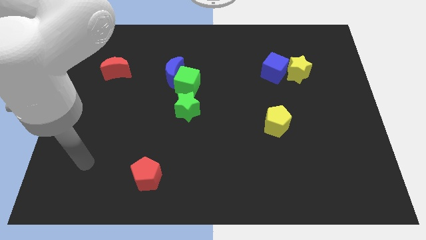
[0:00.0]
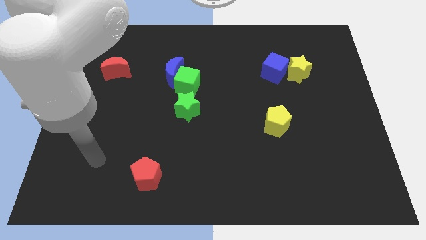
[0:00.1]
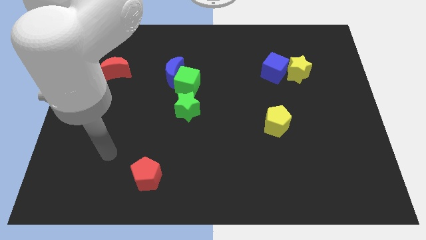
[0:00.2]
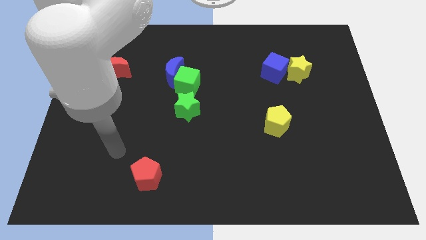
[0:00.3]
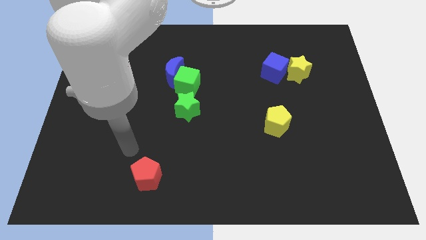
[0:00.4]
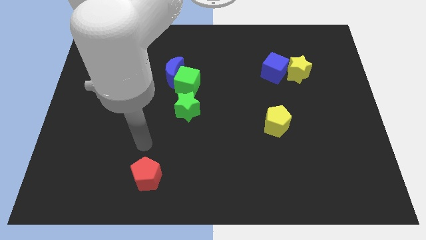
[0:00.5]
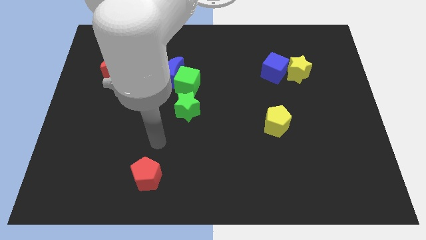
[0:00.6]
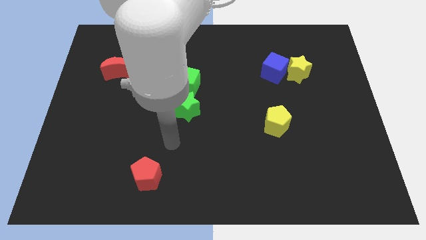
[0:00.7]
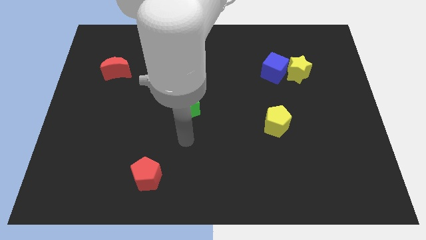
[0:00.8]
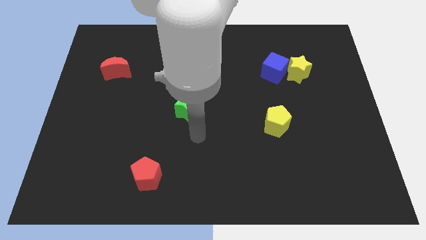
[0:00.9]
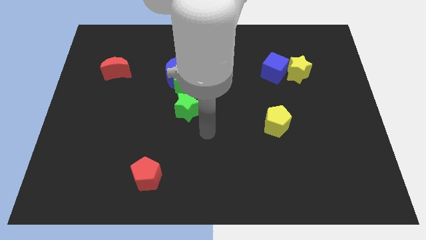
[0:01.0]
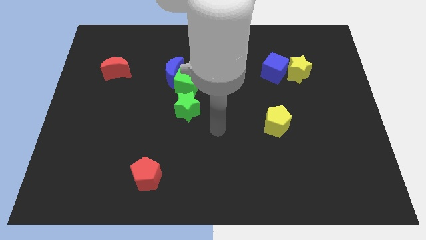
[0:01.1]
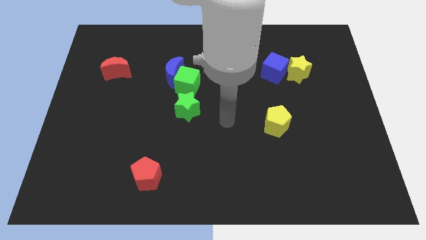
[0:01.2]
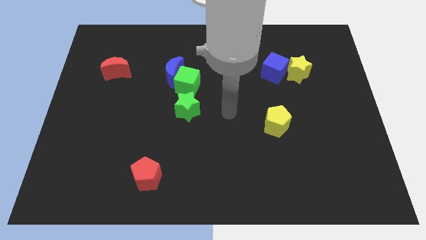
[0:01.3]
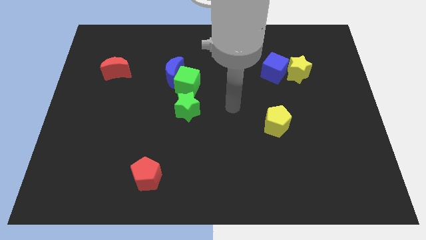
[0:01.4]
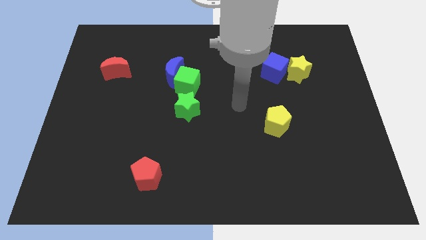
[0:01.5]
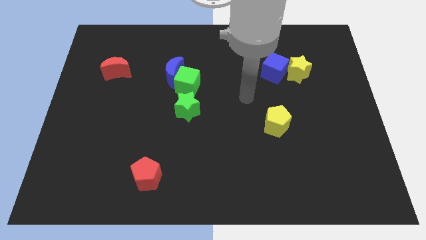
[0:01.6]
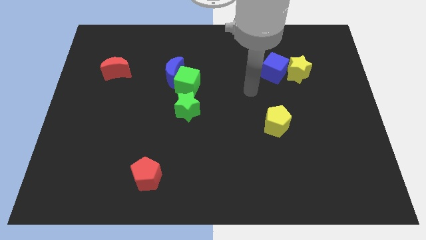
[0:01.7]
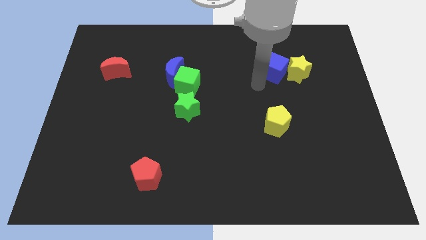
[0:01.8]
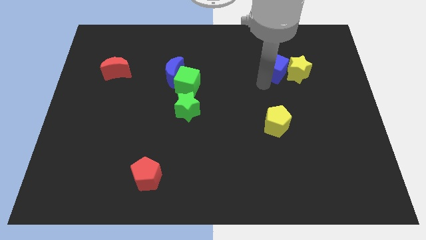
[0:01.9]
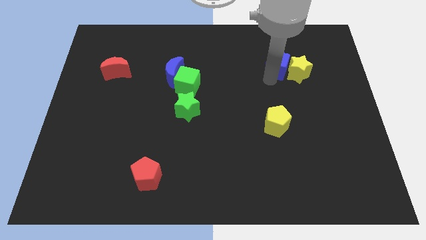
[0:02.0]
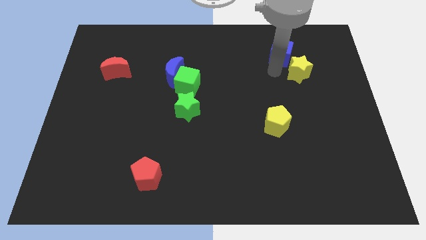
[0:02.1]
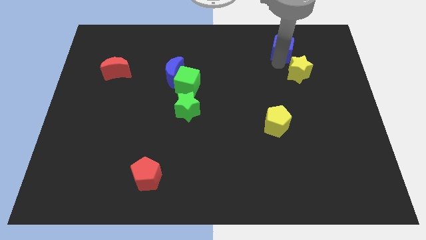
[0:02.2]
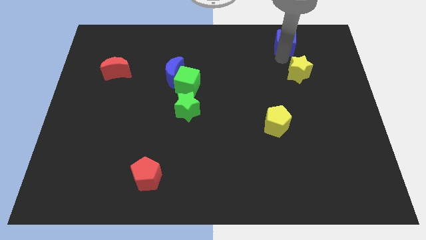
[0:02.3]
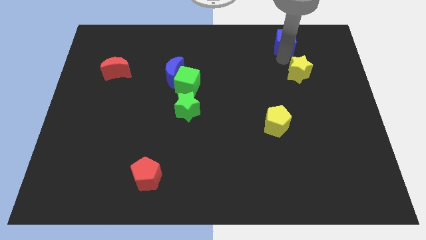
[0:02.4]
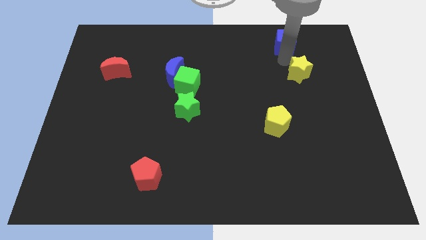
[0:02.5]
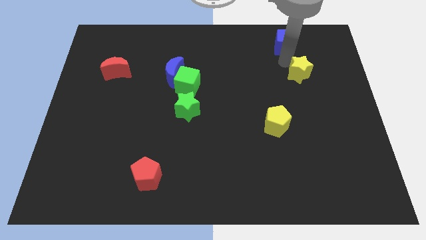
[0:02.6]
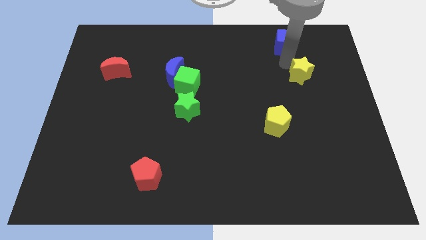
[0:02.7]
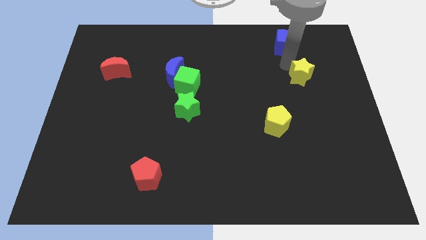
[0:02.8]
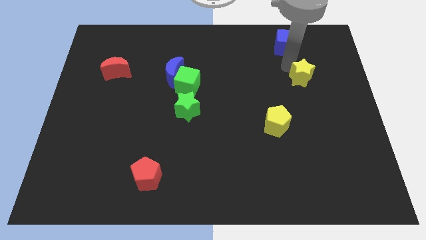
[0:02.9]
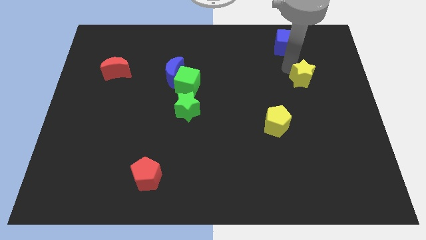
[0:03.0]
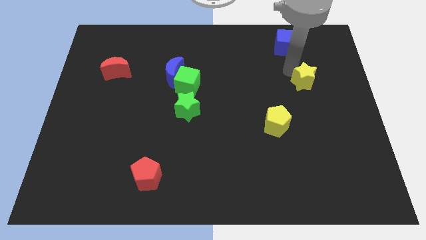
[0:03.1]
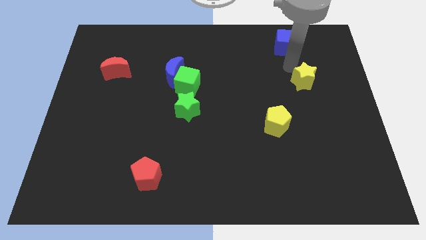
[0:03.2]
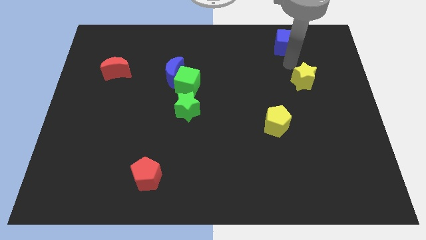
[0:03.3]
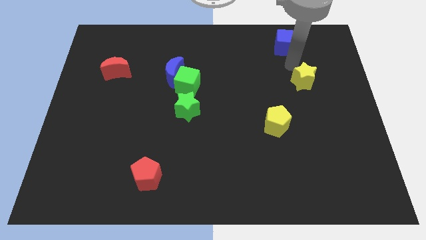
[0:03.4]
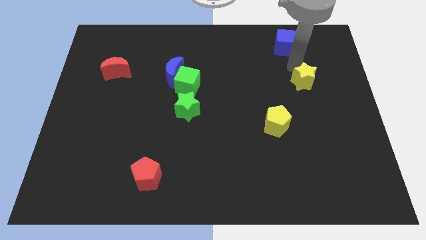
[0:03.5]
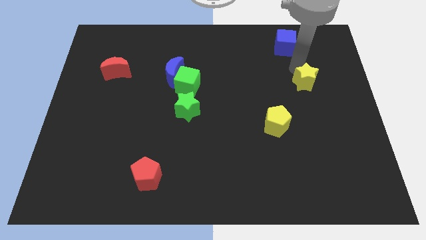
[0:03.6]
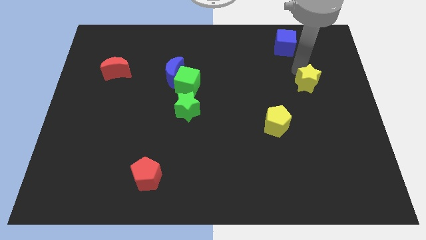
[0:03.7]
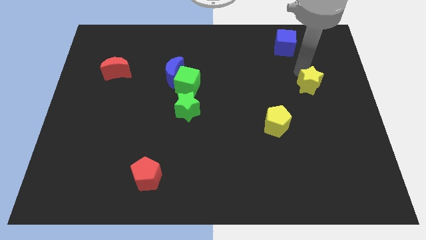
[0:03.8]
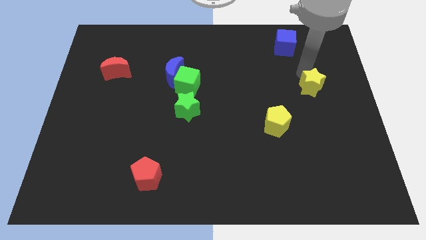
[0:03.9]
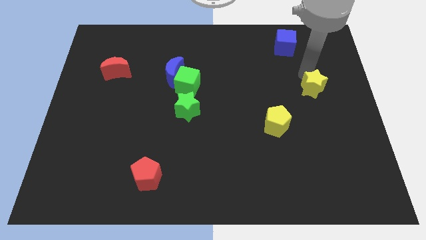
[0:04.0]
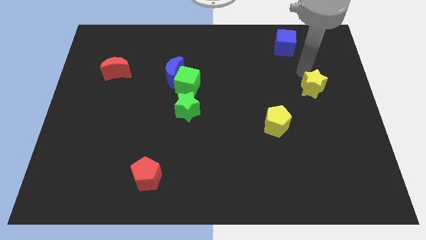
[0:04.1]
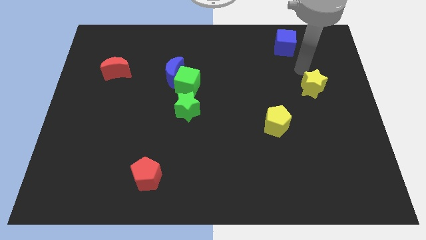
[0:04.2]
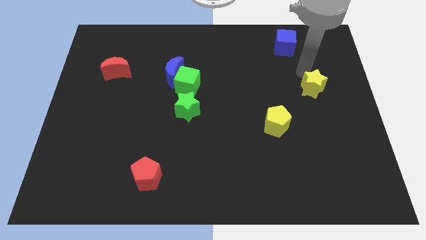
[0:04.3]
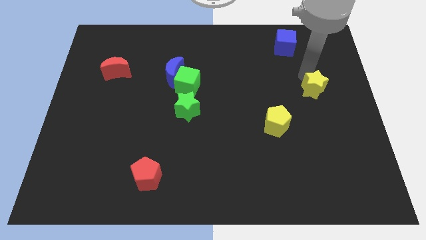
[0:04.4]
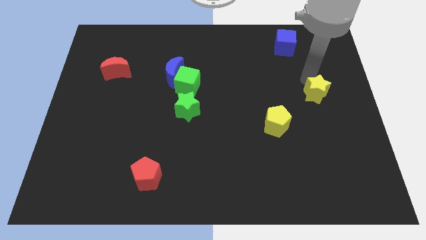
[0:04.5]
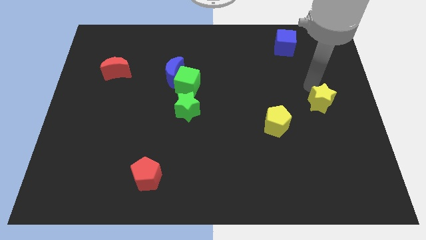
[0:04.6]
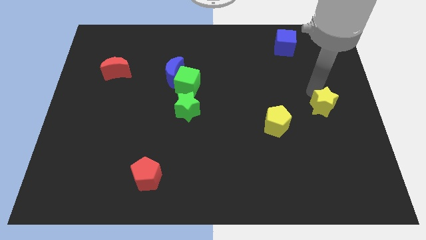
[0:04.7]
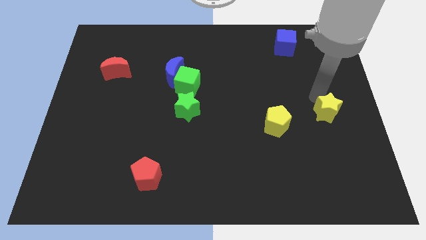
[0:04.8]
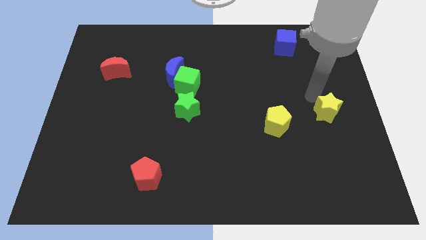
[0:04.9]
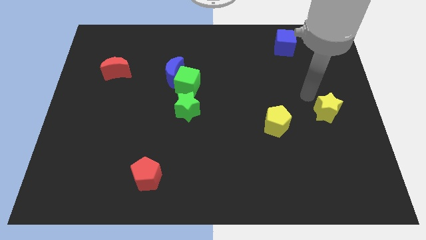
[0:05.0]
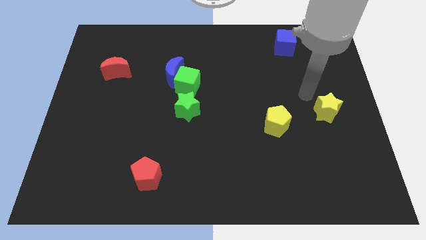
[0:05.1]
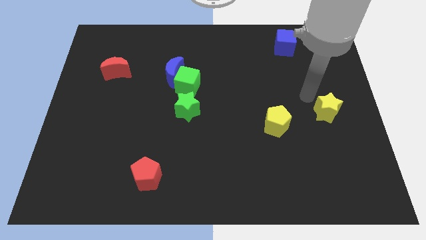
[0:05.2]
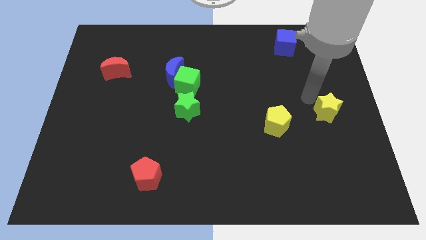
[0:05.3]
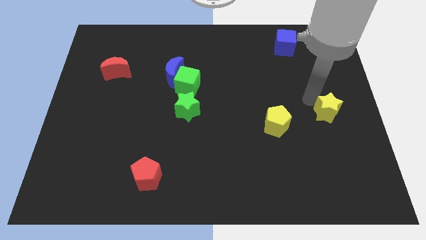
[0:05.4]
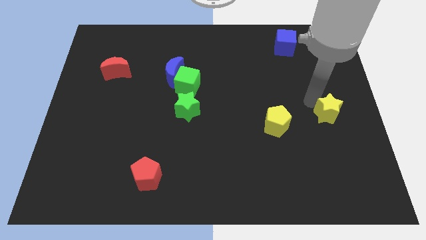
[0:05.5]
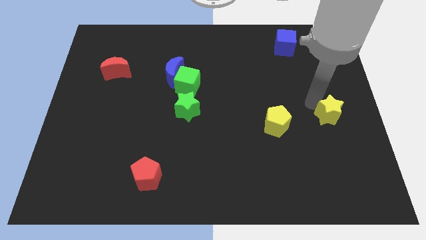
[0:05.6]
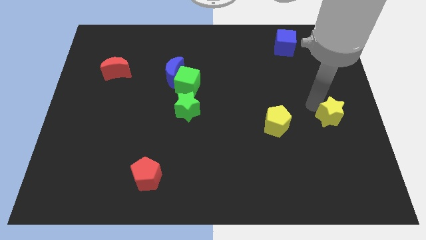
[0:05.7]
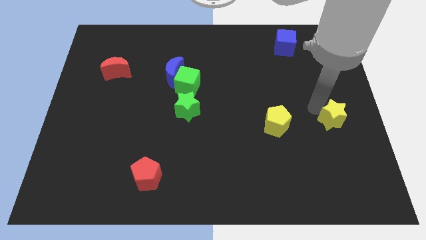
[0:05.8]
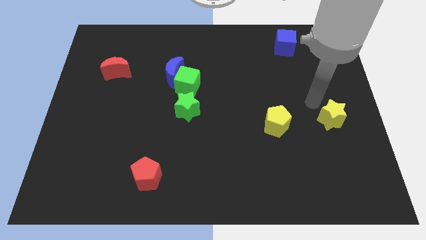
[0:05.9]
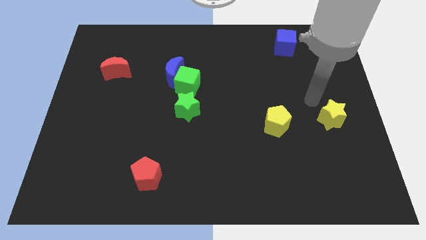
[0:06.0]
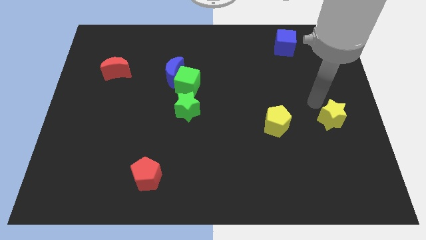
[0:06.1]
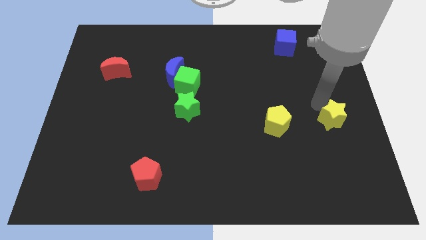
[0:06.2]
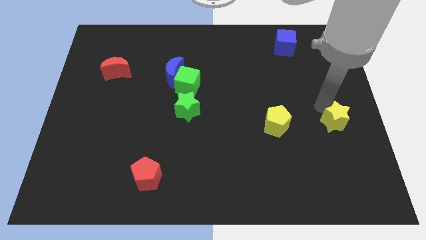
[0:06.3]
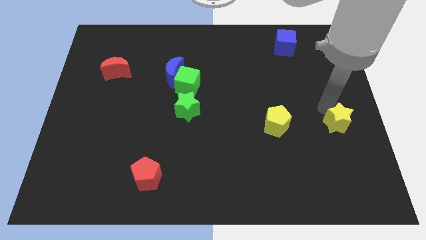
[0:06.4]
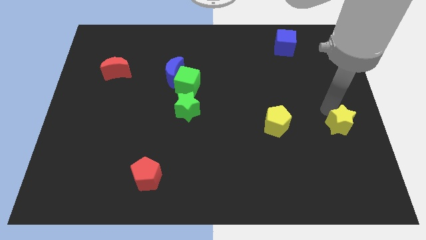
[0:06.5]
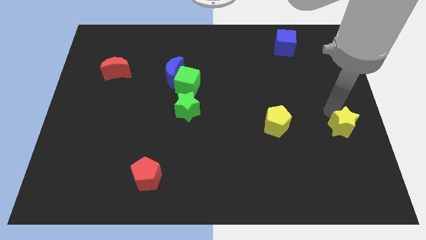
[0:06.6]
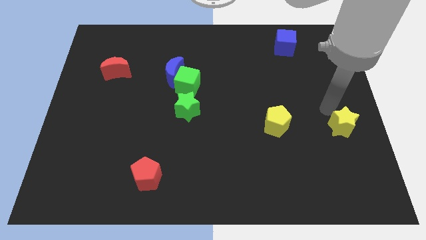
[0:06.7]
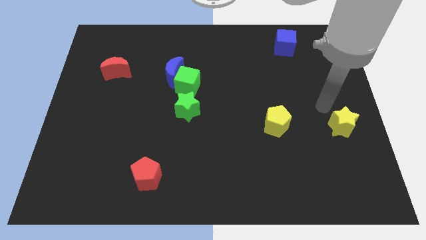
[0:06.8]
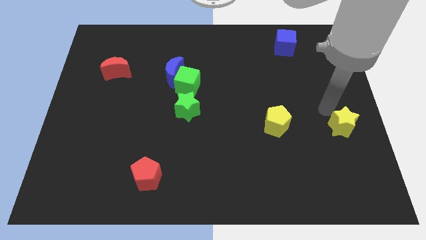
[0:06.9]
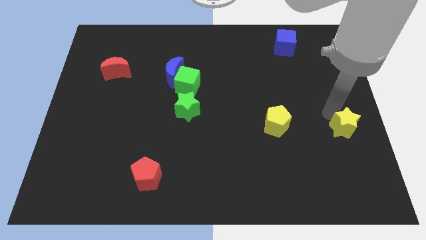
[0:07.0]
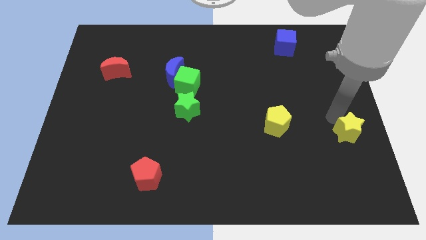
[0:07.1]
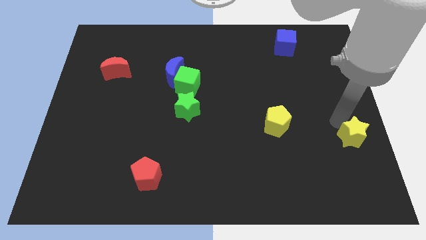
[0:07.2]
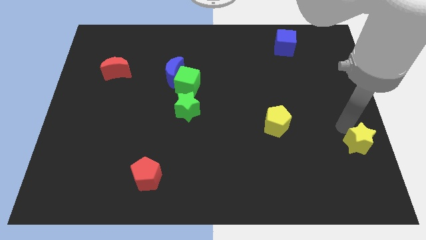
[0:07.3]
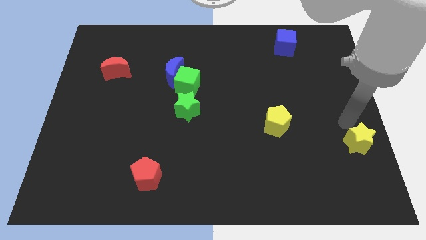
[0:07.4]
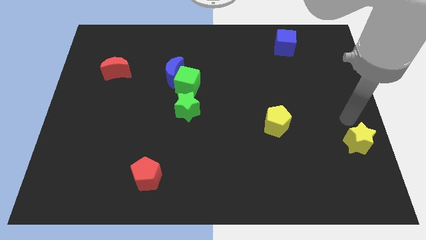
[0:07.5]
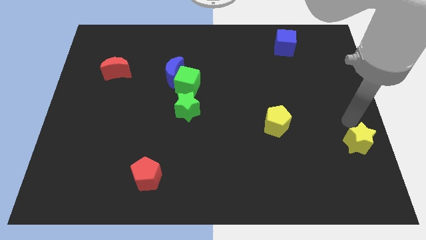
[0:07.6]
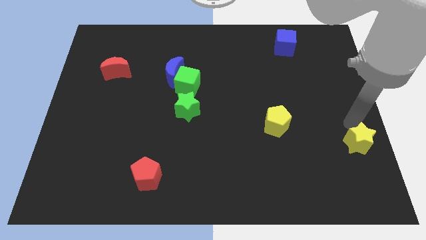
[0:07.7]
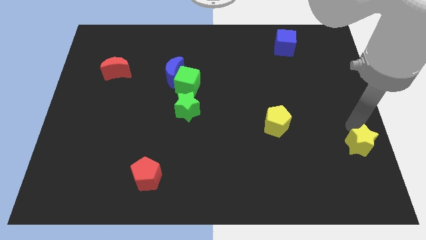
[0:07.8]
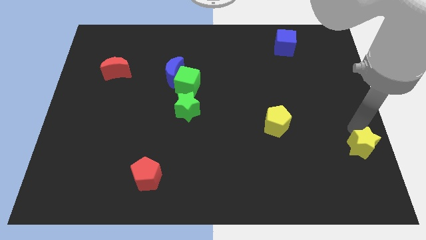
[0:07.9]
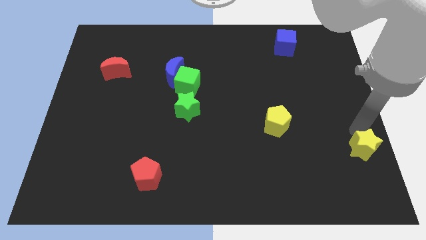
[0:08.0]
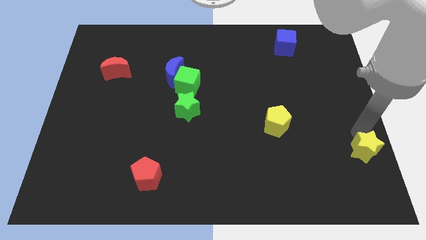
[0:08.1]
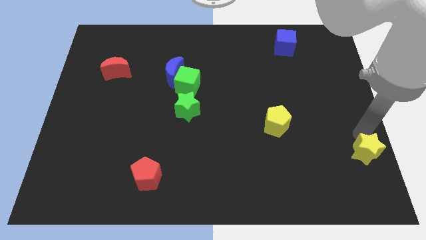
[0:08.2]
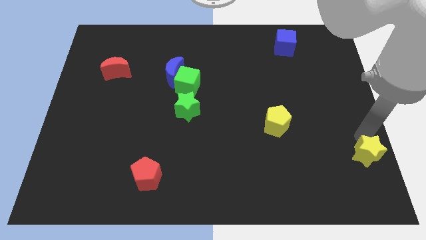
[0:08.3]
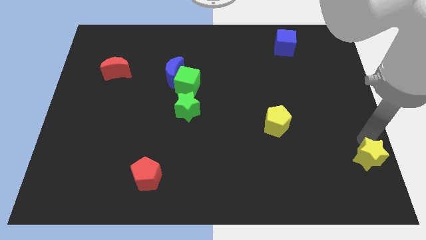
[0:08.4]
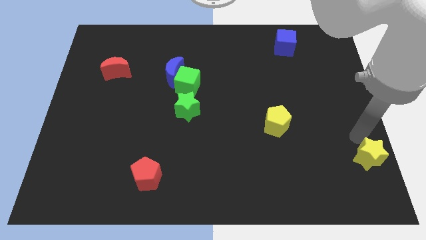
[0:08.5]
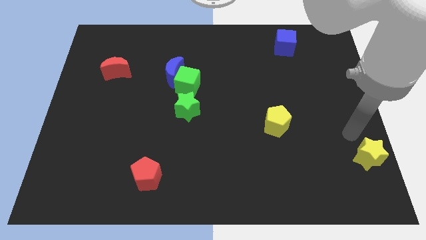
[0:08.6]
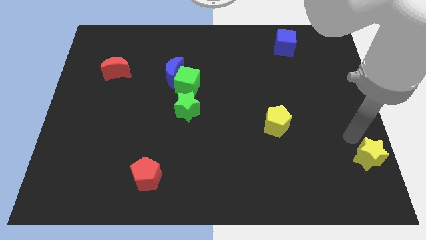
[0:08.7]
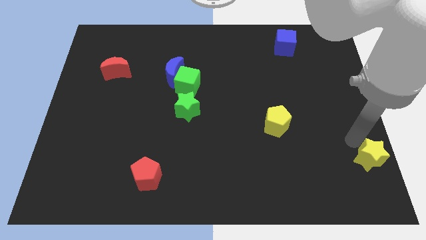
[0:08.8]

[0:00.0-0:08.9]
move the yellow star to the bottom right
